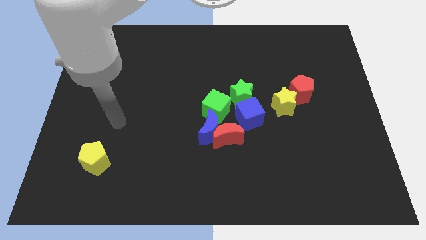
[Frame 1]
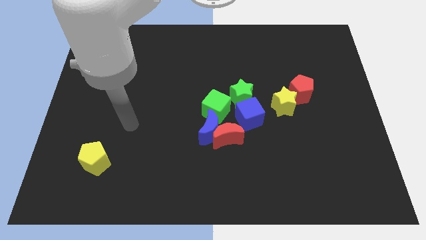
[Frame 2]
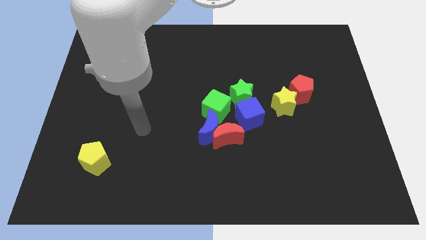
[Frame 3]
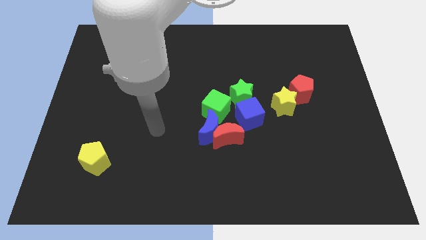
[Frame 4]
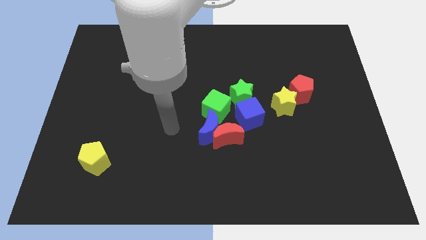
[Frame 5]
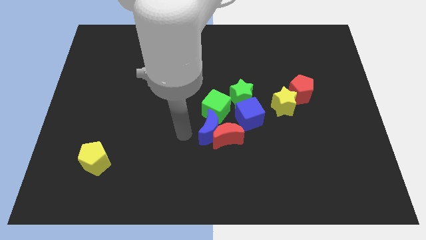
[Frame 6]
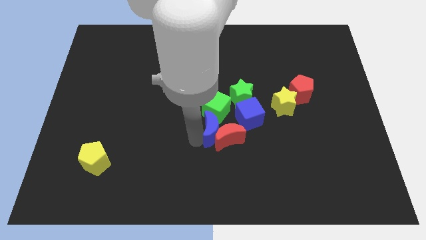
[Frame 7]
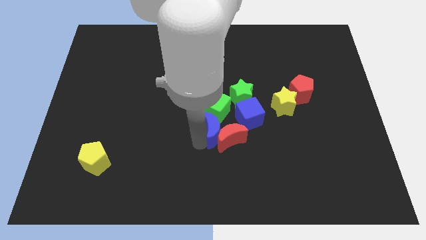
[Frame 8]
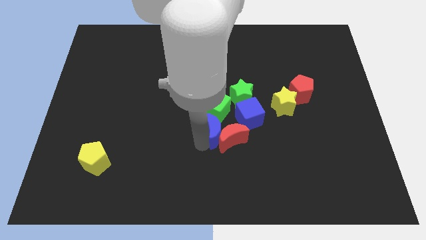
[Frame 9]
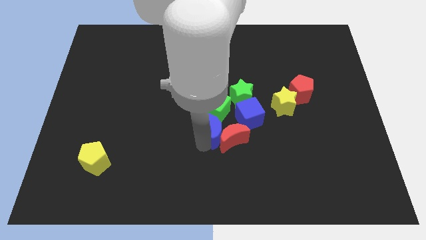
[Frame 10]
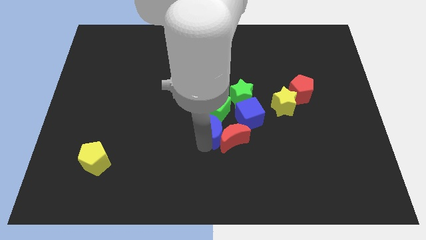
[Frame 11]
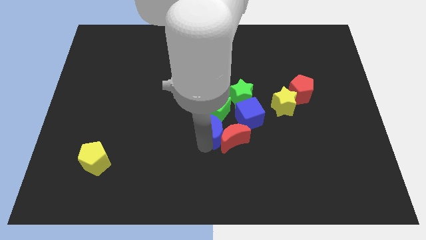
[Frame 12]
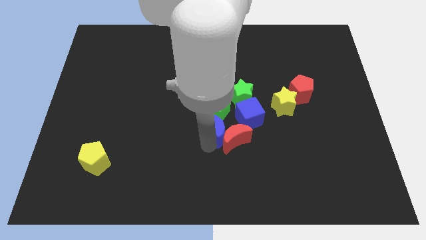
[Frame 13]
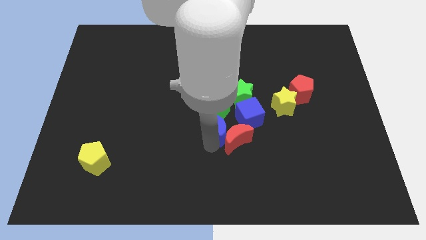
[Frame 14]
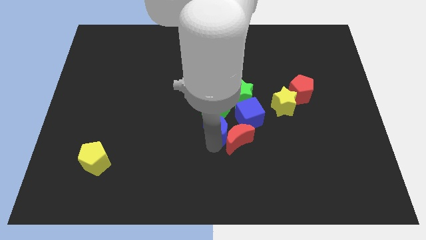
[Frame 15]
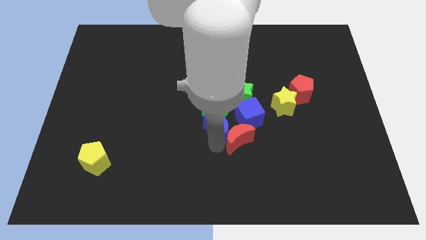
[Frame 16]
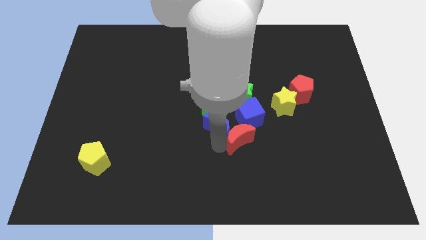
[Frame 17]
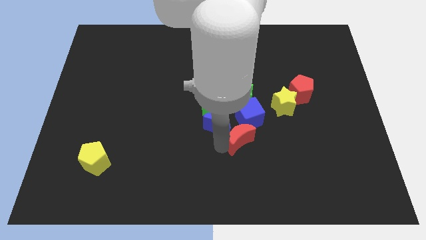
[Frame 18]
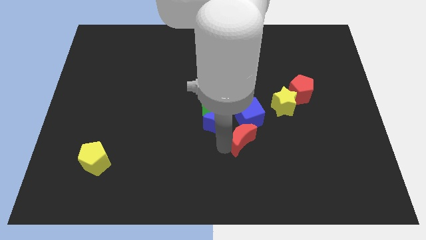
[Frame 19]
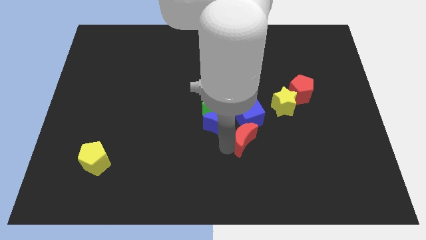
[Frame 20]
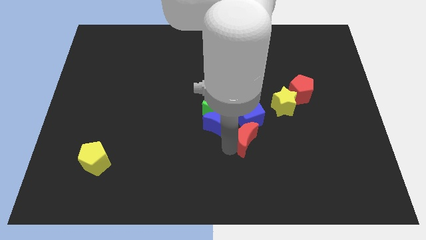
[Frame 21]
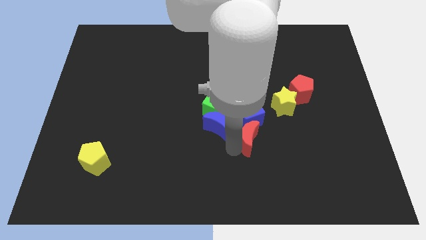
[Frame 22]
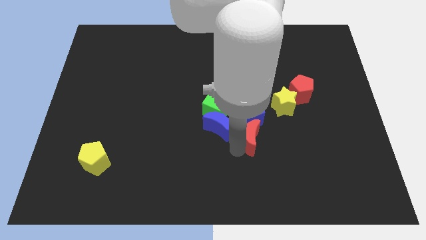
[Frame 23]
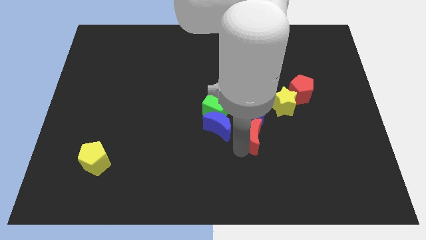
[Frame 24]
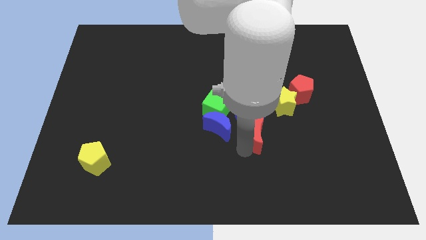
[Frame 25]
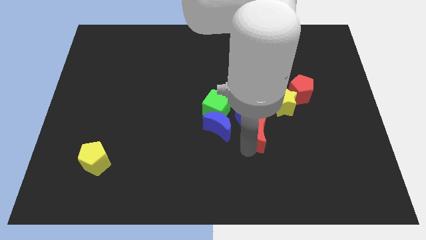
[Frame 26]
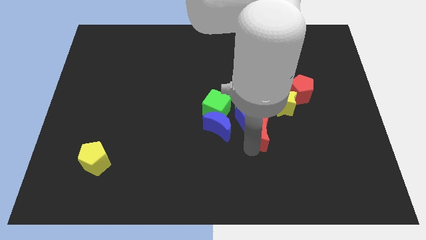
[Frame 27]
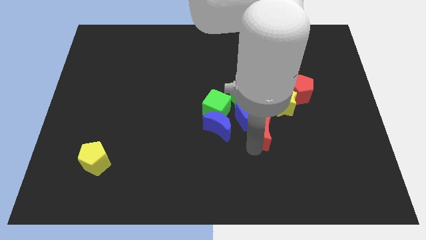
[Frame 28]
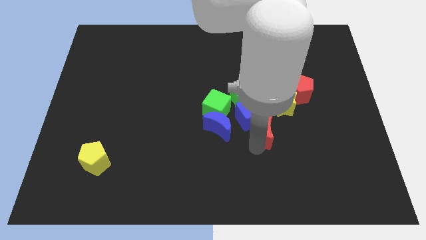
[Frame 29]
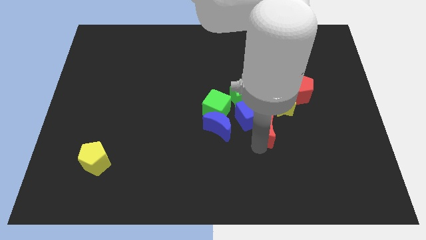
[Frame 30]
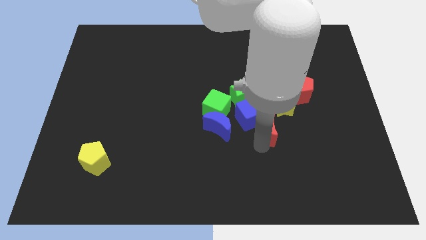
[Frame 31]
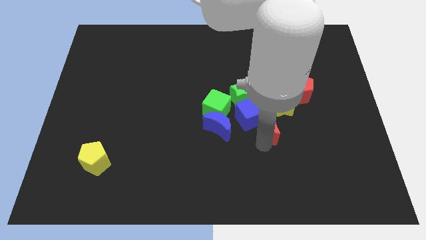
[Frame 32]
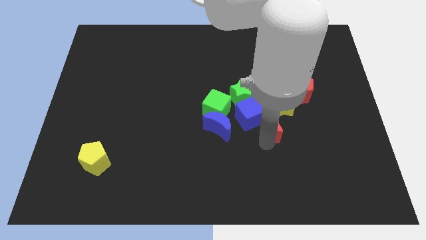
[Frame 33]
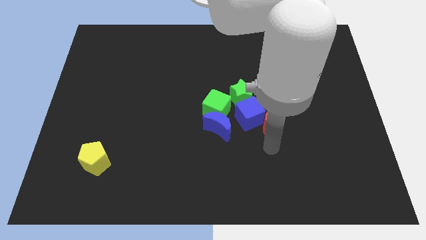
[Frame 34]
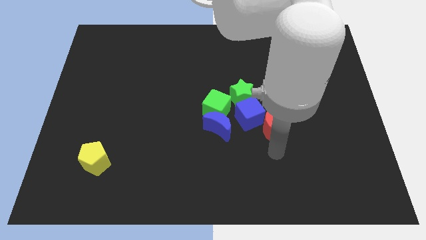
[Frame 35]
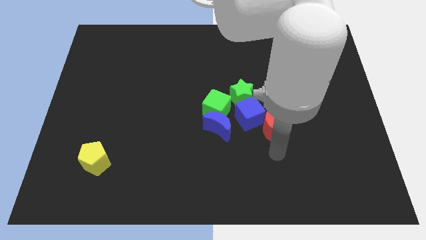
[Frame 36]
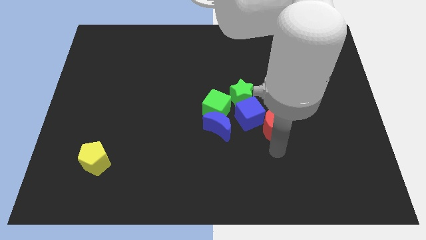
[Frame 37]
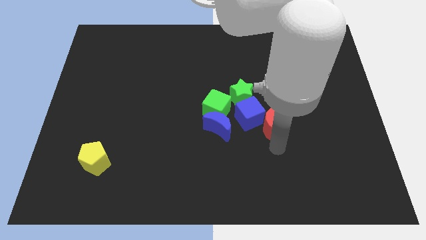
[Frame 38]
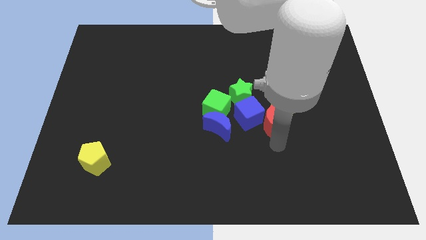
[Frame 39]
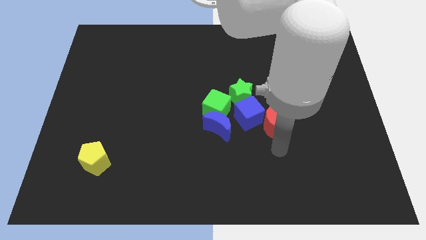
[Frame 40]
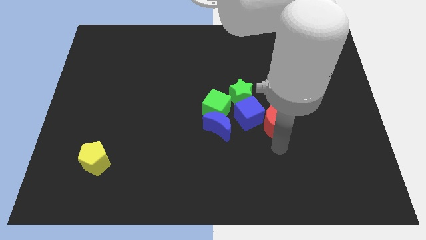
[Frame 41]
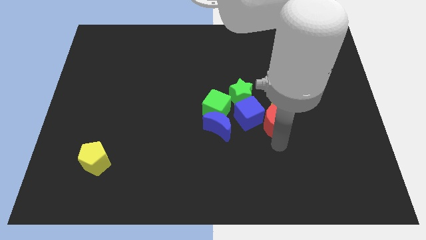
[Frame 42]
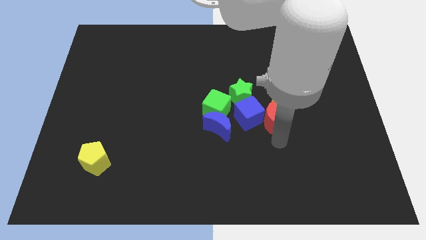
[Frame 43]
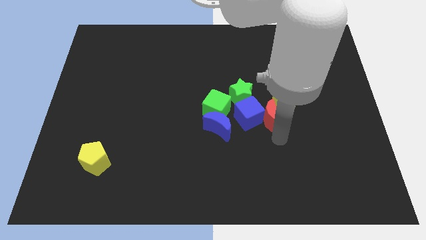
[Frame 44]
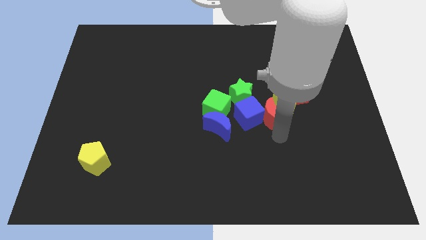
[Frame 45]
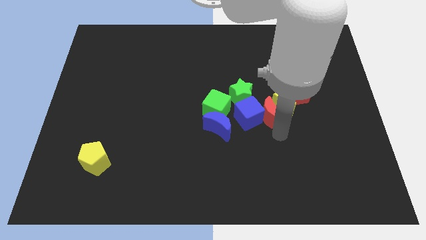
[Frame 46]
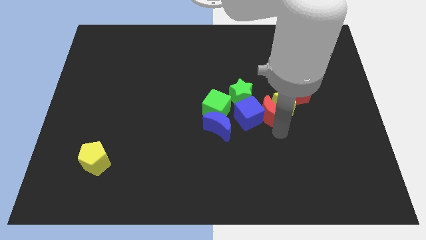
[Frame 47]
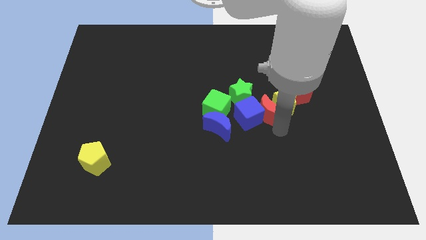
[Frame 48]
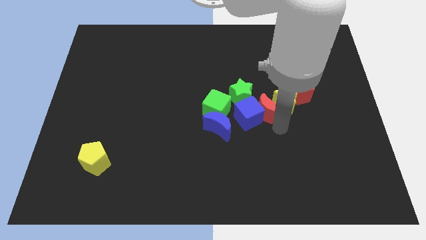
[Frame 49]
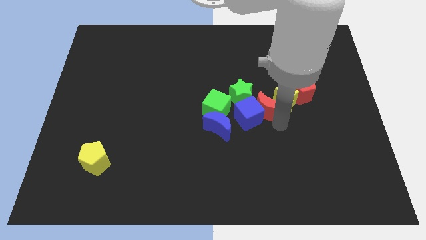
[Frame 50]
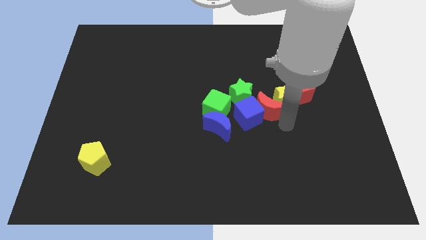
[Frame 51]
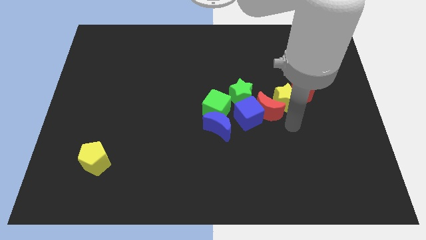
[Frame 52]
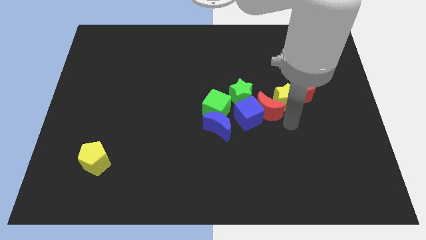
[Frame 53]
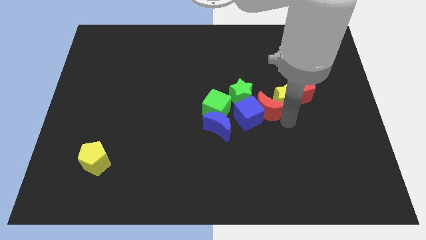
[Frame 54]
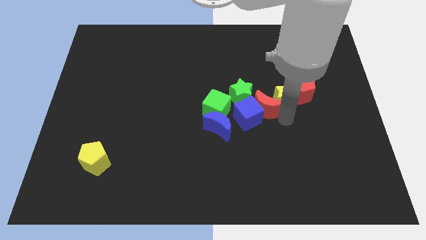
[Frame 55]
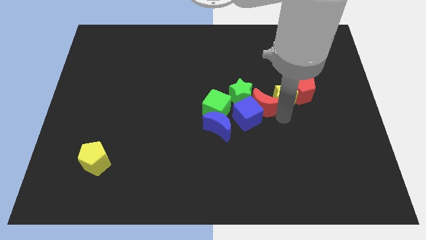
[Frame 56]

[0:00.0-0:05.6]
put the red moon next to the green star

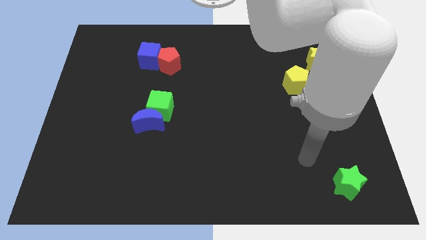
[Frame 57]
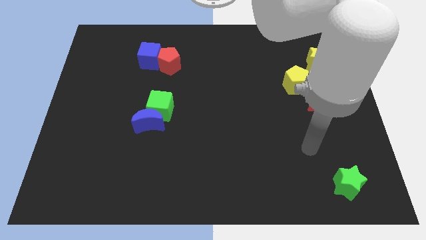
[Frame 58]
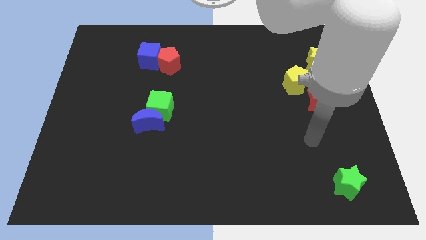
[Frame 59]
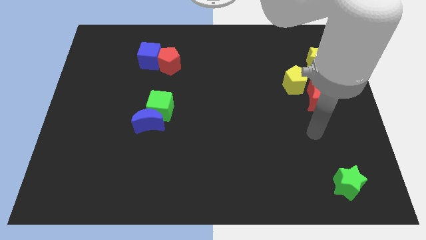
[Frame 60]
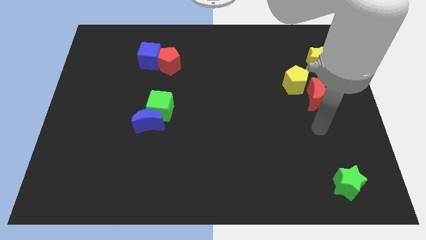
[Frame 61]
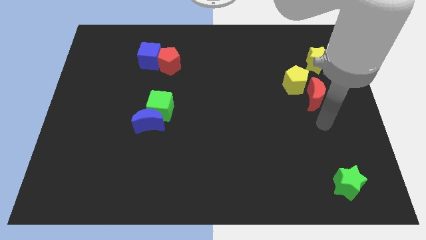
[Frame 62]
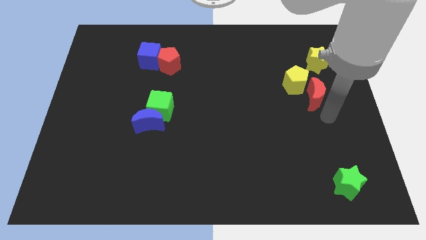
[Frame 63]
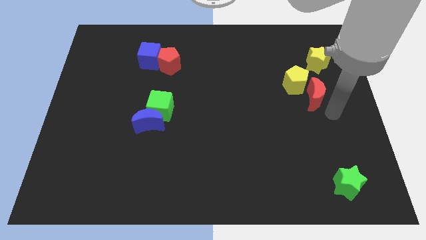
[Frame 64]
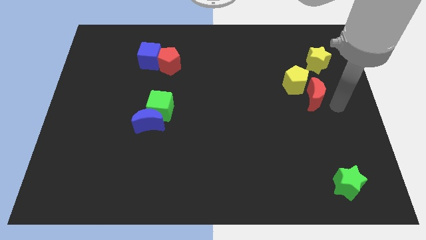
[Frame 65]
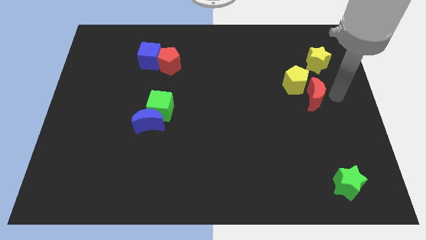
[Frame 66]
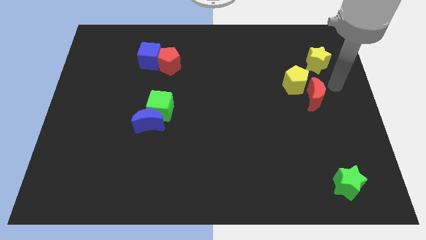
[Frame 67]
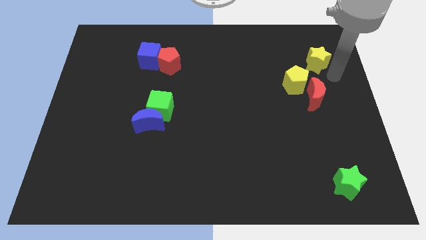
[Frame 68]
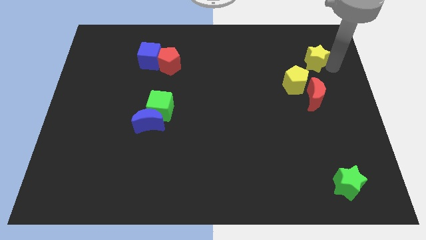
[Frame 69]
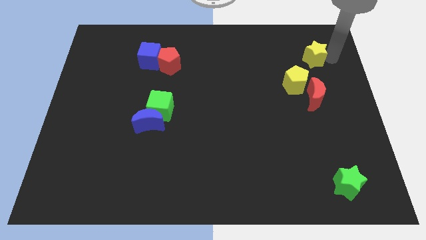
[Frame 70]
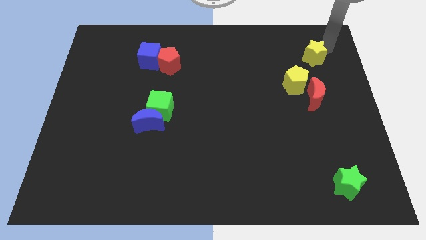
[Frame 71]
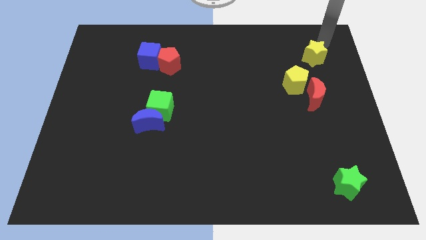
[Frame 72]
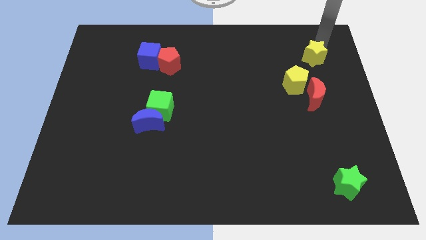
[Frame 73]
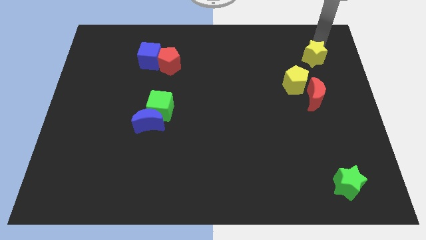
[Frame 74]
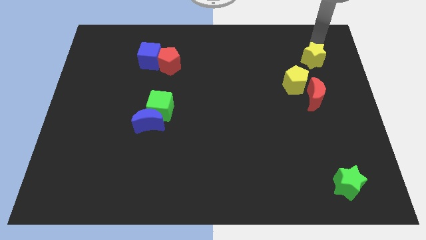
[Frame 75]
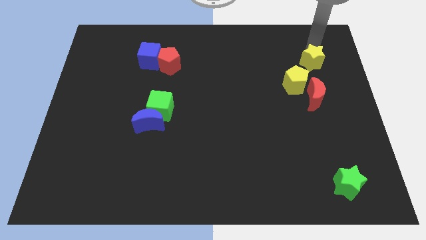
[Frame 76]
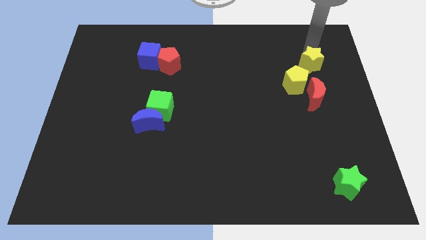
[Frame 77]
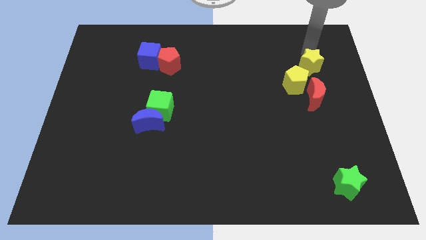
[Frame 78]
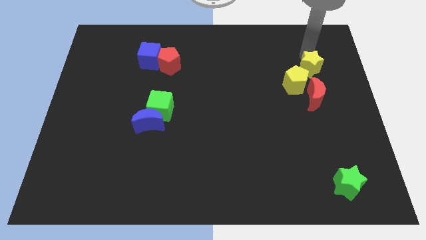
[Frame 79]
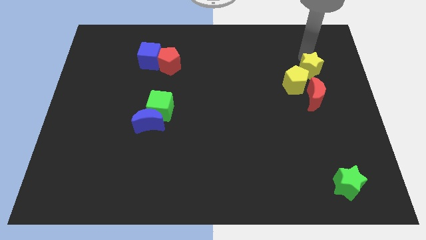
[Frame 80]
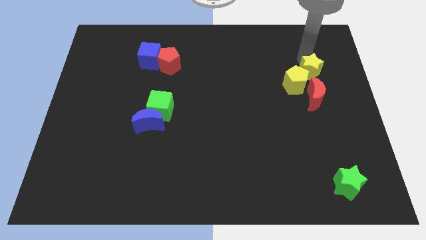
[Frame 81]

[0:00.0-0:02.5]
put the yellow star towards the yellow pentagon
